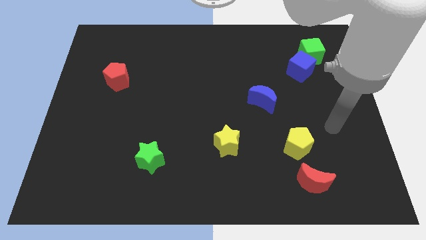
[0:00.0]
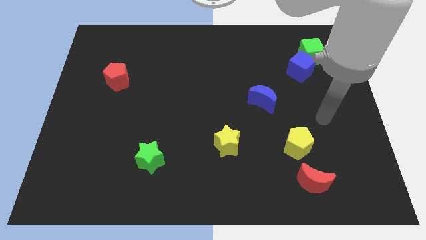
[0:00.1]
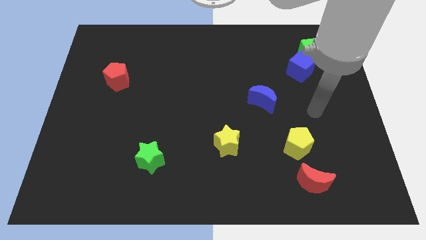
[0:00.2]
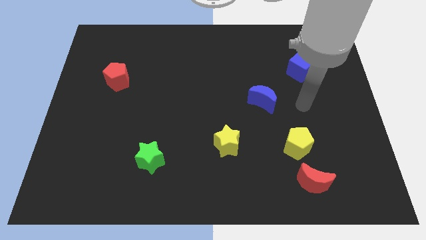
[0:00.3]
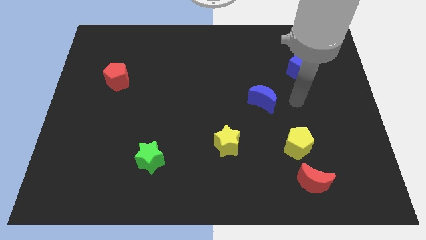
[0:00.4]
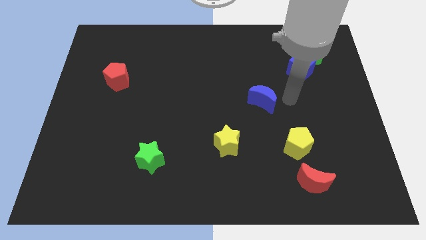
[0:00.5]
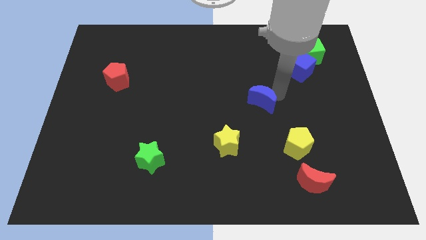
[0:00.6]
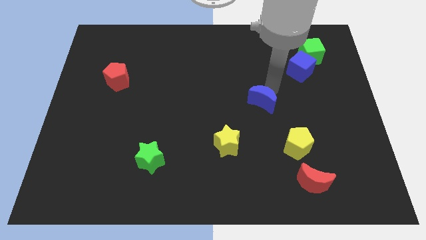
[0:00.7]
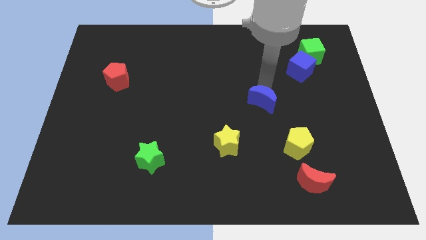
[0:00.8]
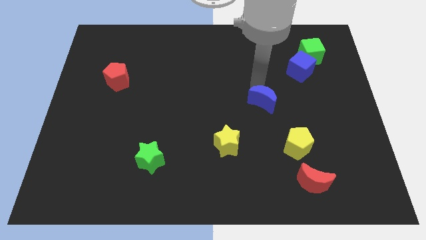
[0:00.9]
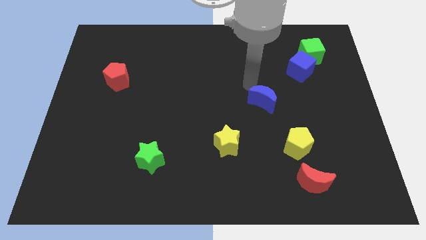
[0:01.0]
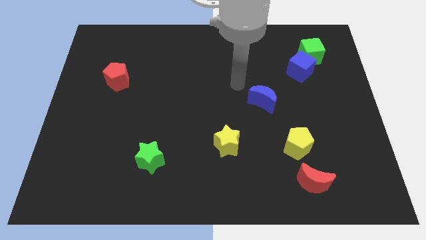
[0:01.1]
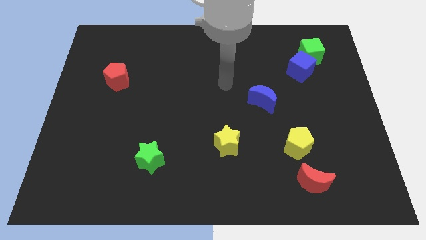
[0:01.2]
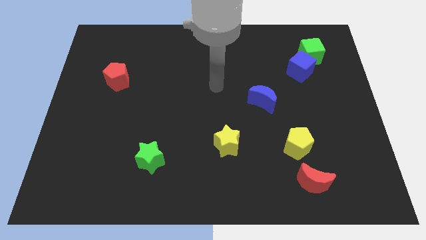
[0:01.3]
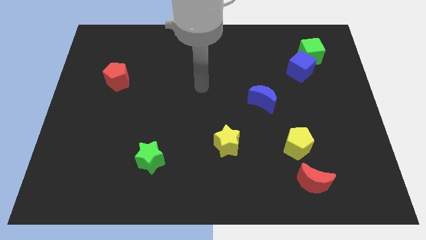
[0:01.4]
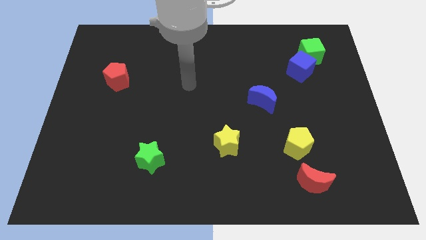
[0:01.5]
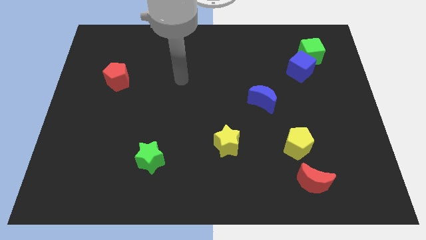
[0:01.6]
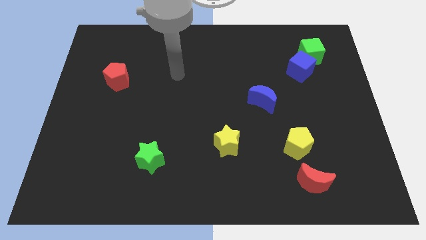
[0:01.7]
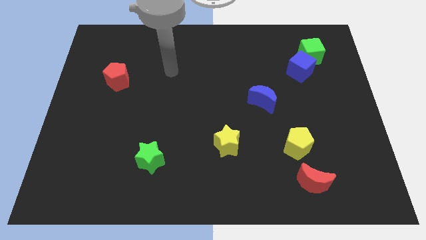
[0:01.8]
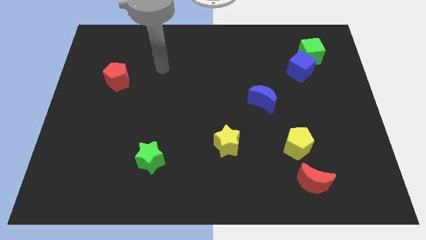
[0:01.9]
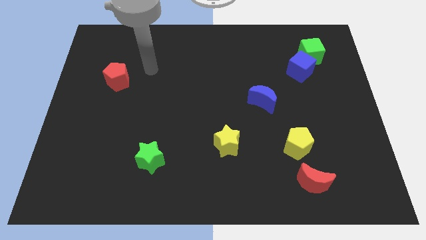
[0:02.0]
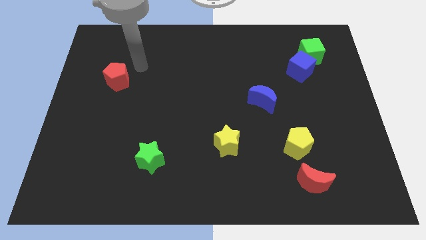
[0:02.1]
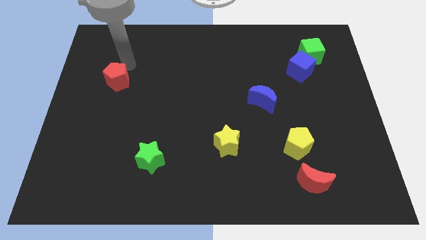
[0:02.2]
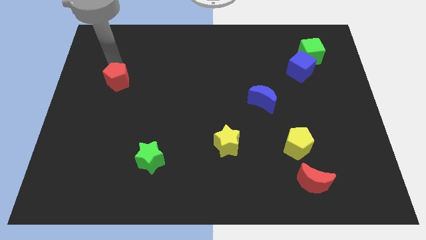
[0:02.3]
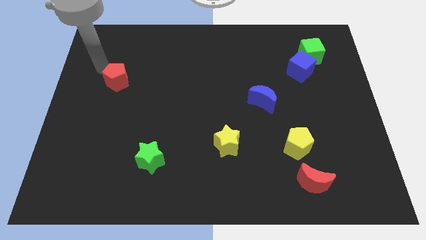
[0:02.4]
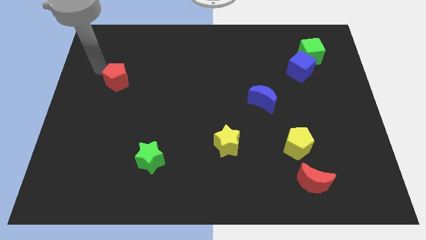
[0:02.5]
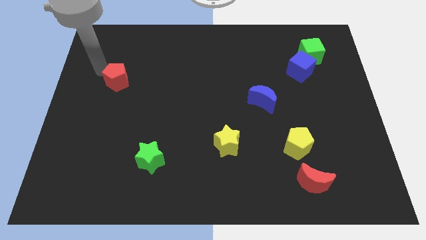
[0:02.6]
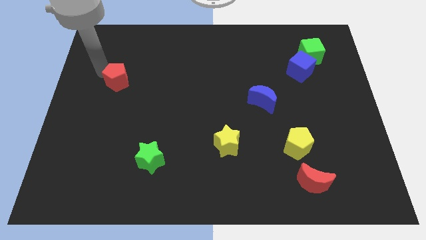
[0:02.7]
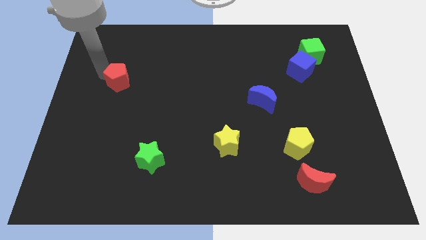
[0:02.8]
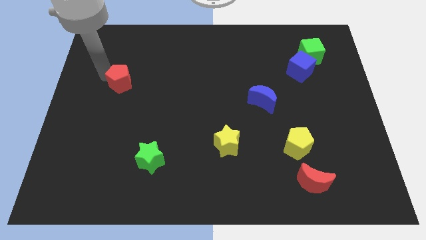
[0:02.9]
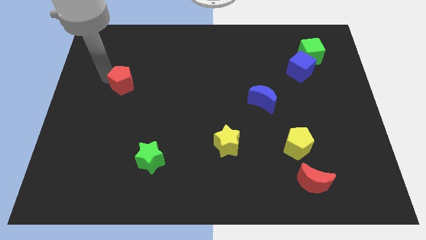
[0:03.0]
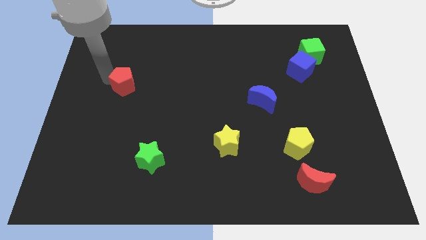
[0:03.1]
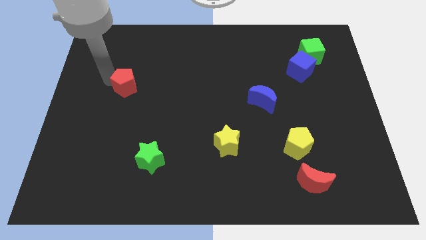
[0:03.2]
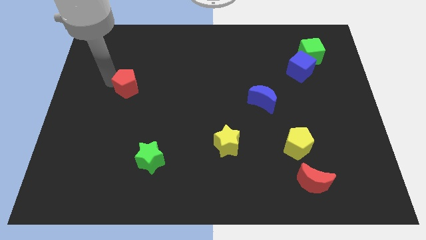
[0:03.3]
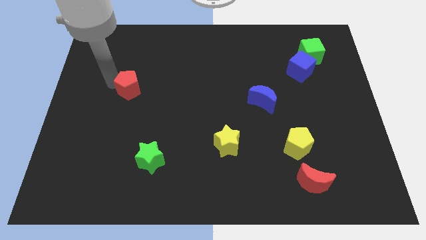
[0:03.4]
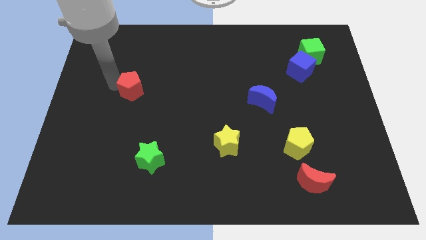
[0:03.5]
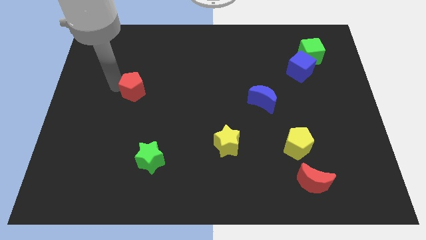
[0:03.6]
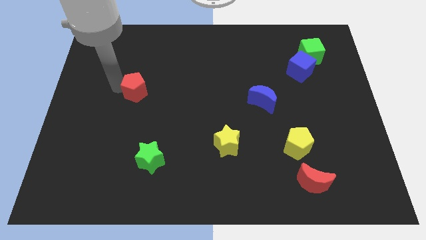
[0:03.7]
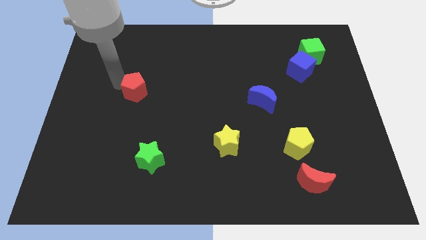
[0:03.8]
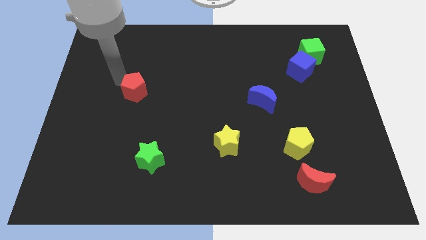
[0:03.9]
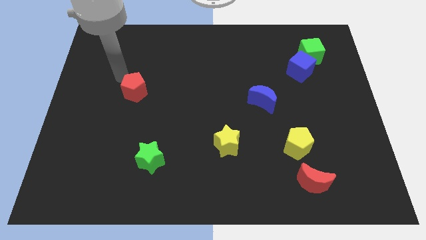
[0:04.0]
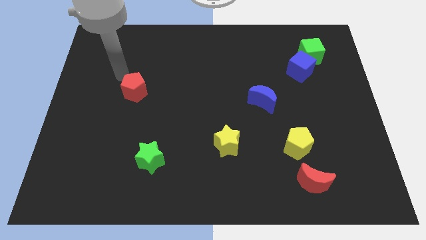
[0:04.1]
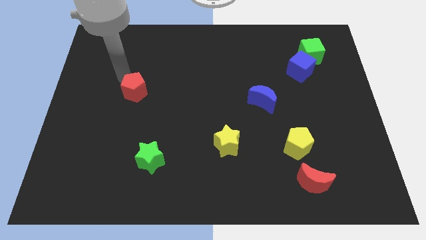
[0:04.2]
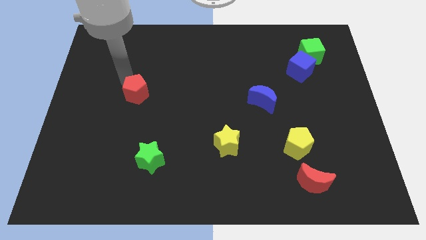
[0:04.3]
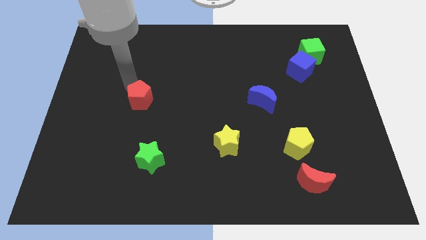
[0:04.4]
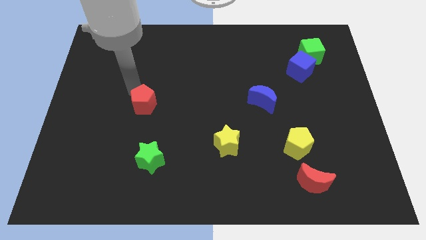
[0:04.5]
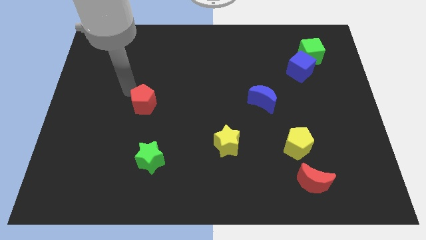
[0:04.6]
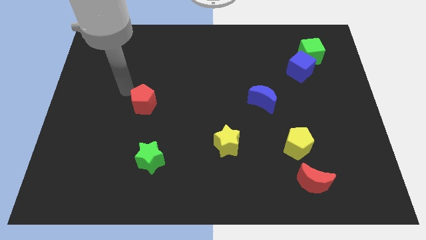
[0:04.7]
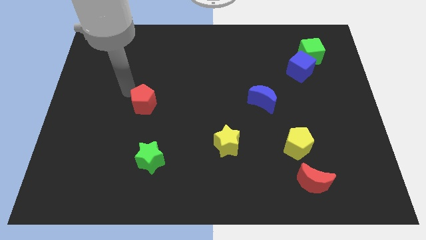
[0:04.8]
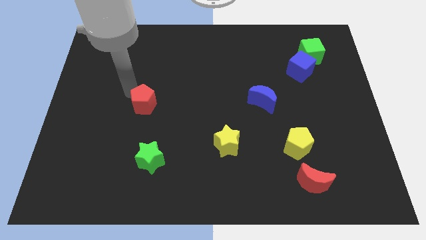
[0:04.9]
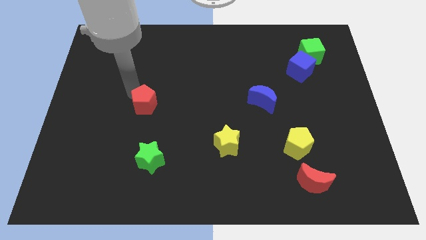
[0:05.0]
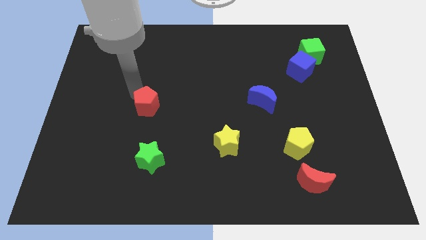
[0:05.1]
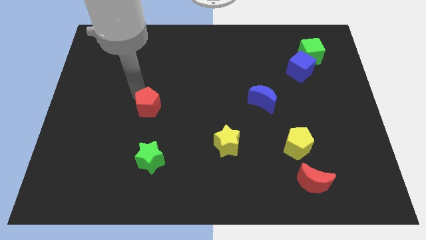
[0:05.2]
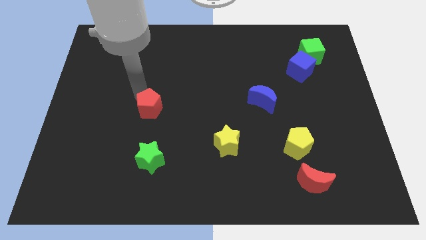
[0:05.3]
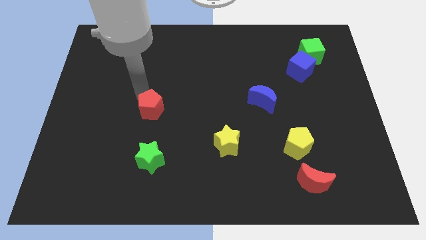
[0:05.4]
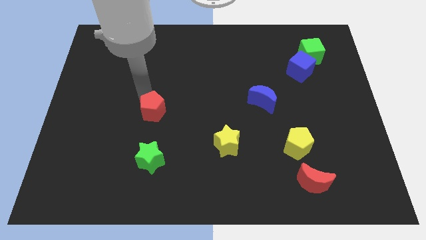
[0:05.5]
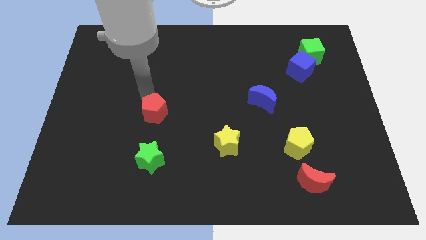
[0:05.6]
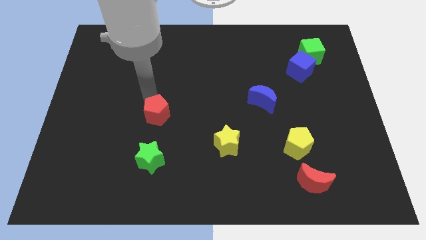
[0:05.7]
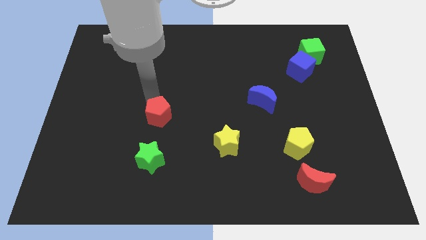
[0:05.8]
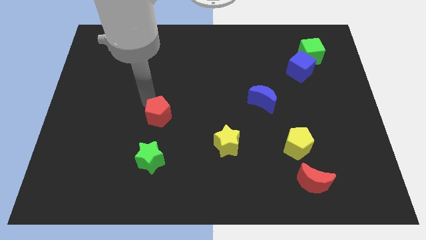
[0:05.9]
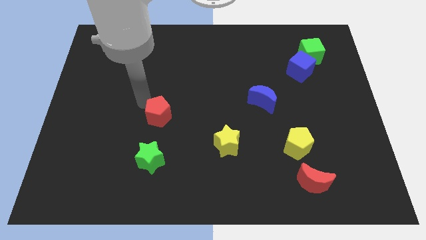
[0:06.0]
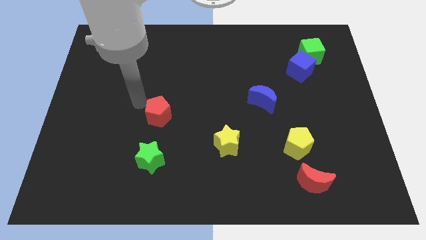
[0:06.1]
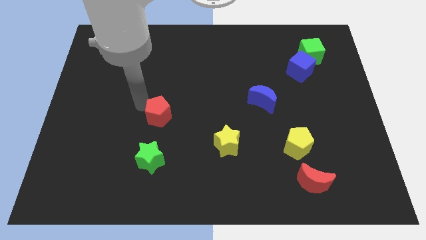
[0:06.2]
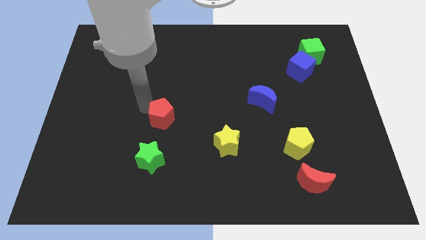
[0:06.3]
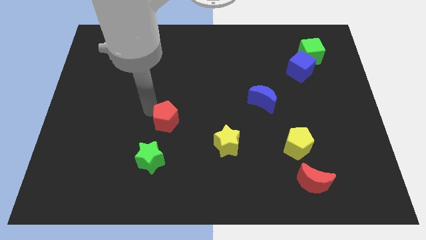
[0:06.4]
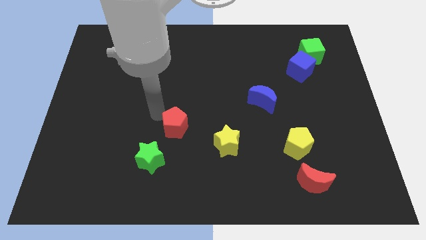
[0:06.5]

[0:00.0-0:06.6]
slide the red pentagon downwards and to the right

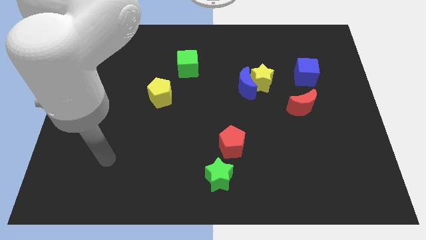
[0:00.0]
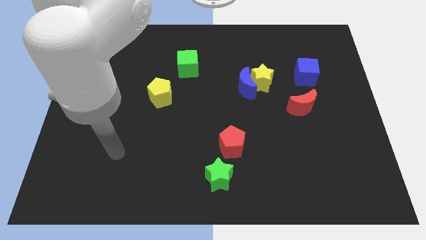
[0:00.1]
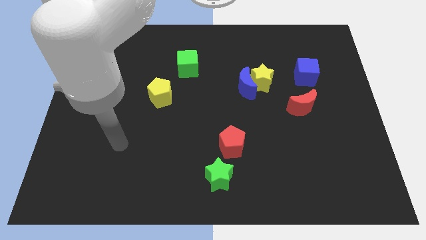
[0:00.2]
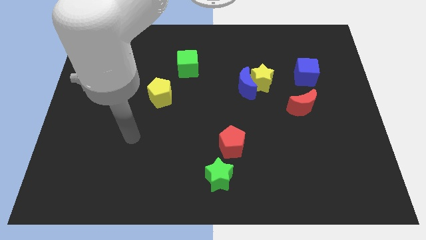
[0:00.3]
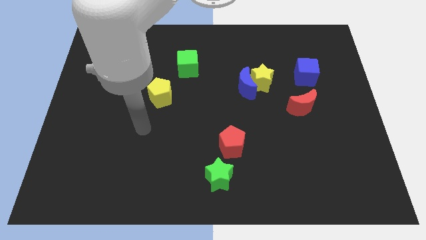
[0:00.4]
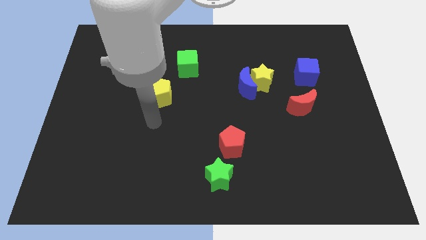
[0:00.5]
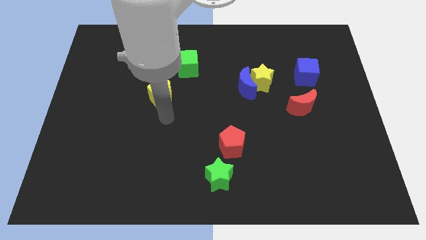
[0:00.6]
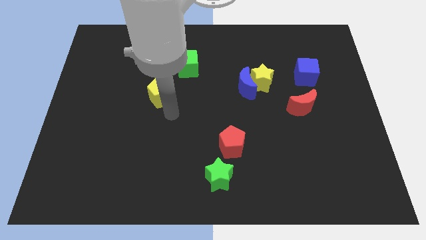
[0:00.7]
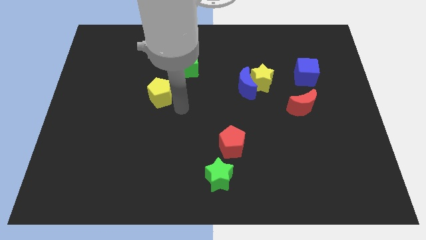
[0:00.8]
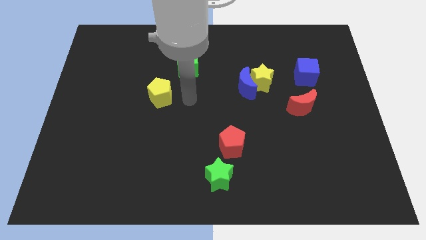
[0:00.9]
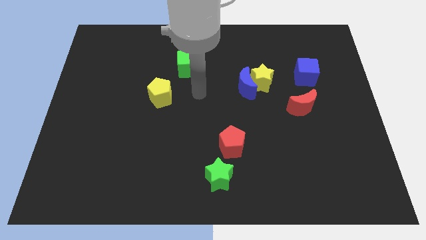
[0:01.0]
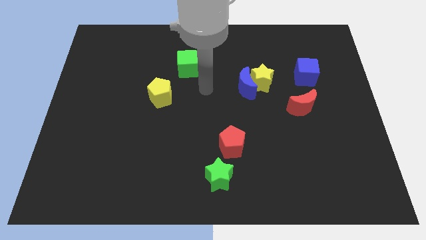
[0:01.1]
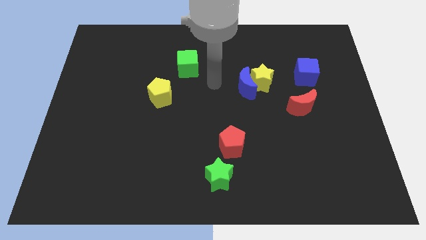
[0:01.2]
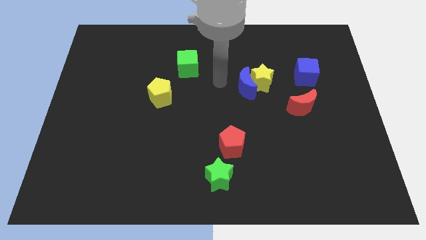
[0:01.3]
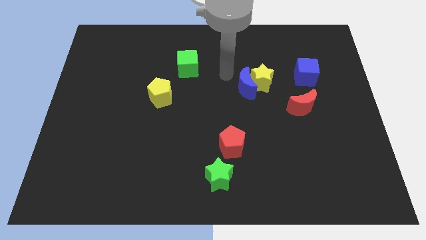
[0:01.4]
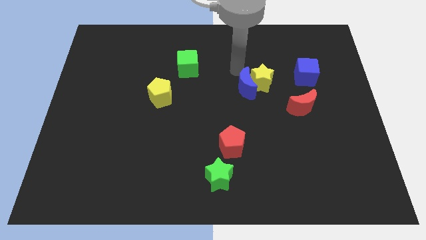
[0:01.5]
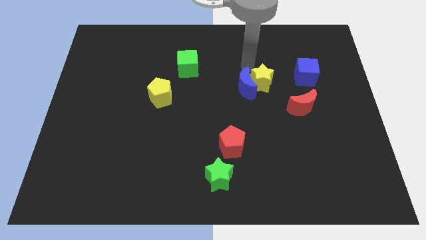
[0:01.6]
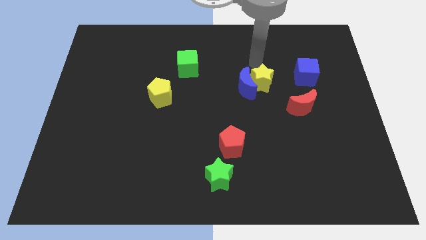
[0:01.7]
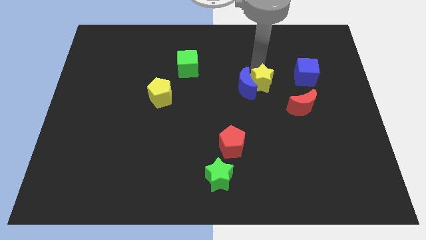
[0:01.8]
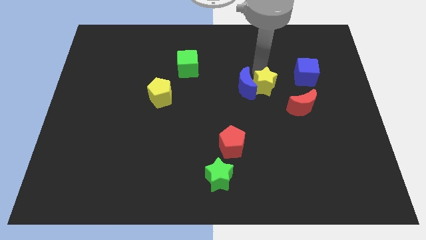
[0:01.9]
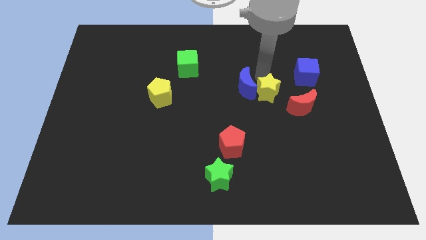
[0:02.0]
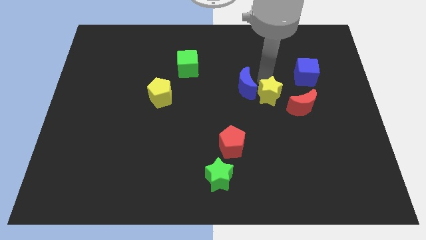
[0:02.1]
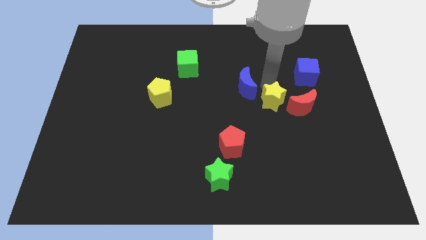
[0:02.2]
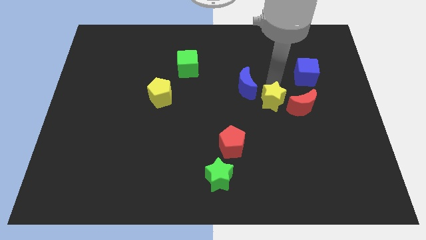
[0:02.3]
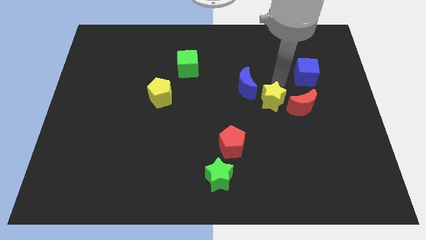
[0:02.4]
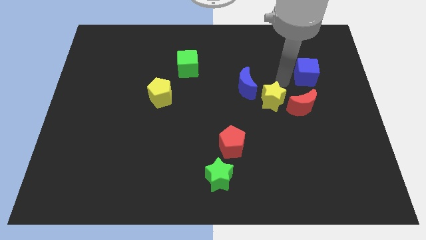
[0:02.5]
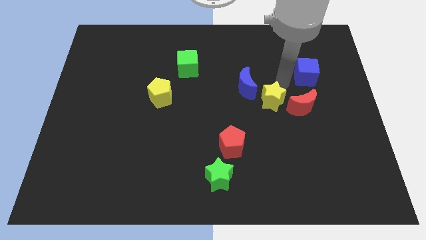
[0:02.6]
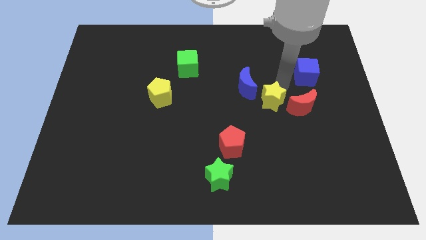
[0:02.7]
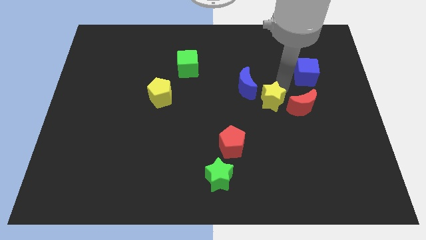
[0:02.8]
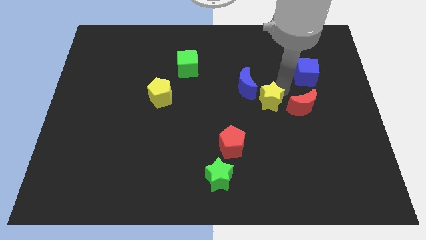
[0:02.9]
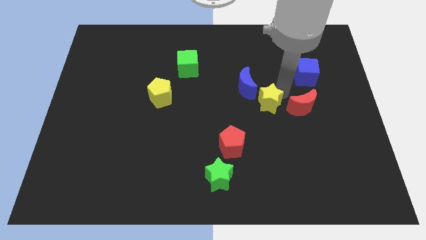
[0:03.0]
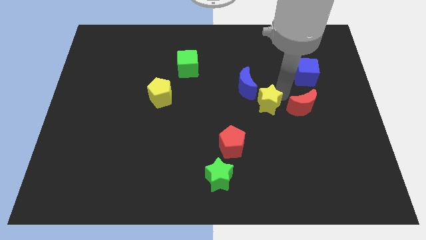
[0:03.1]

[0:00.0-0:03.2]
slightly move the yellow star down
